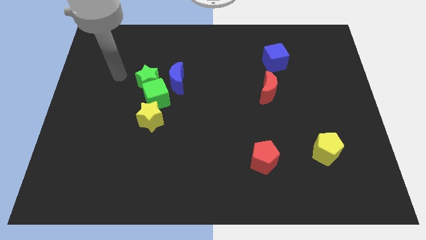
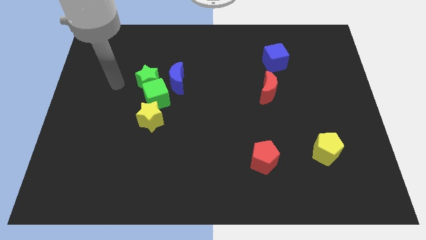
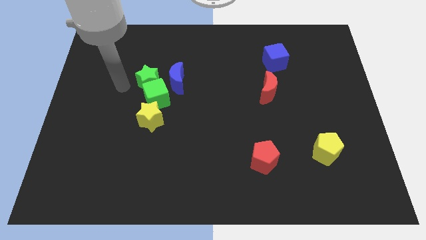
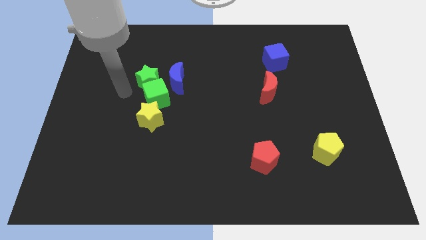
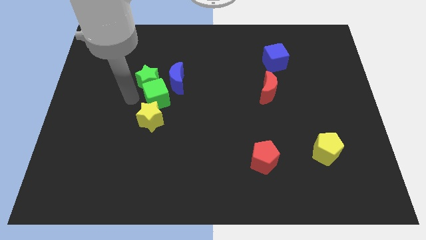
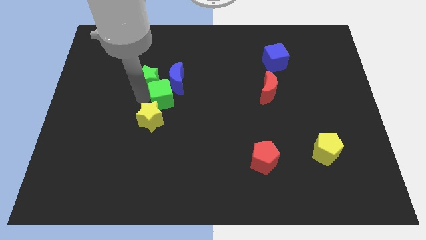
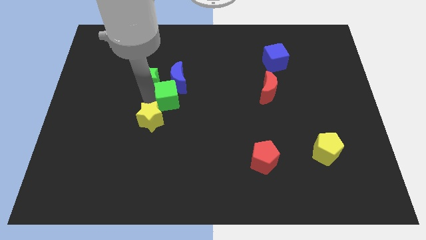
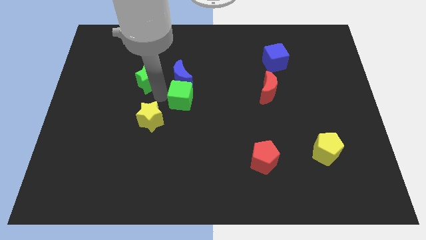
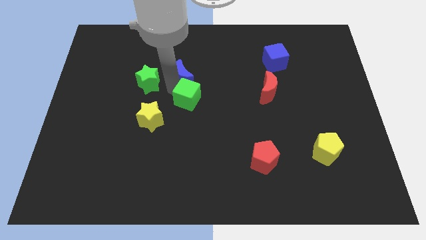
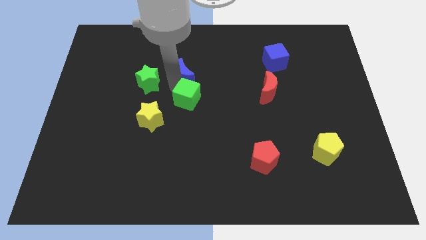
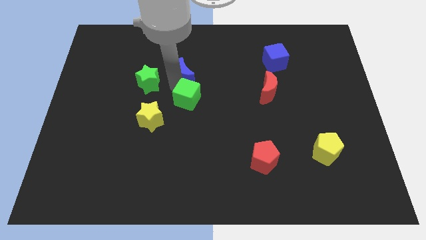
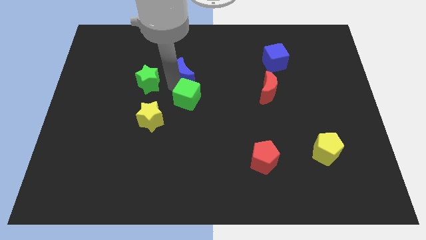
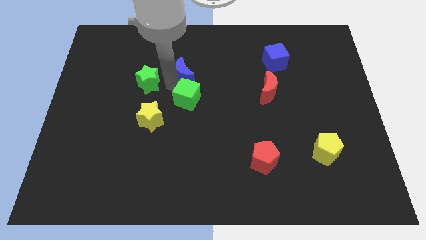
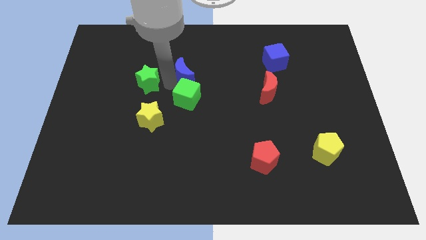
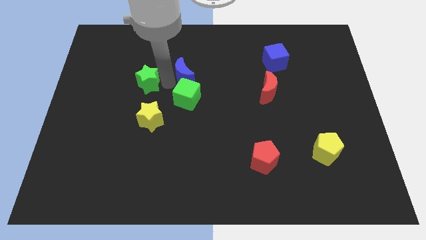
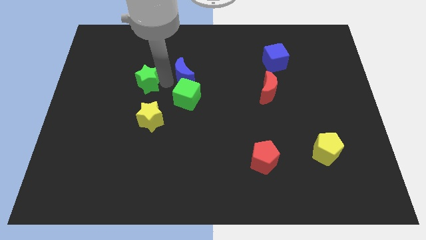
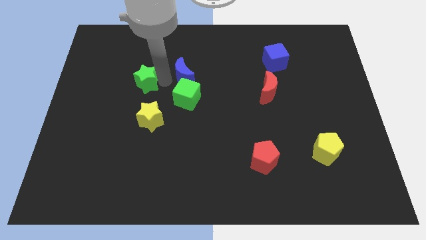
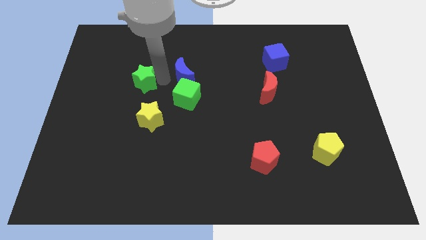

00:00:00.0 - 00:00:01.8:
pull the green star apart from the green cube and blue moon

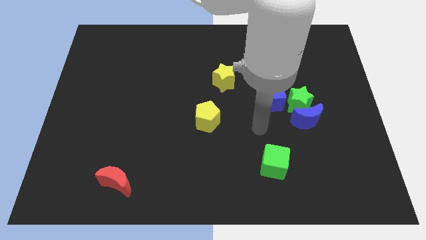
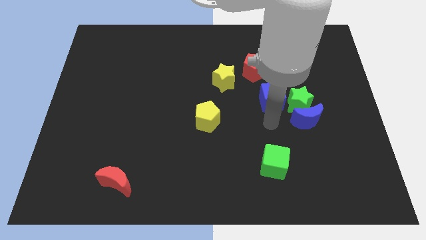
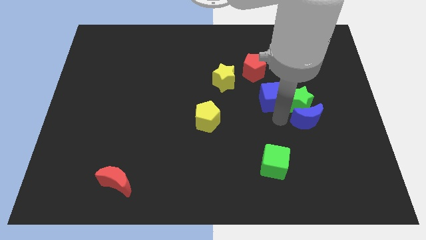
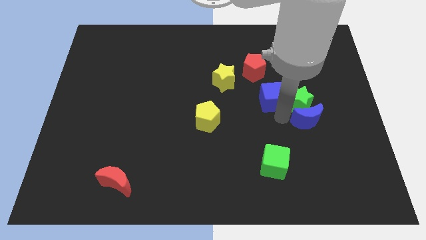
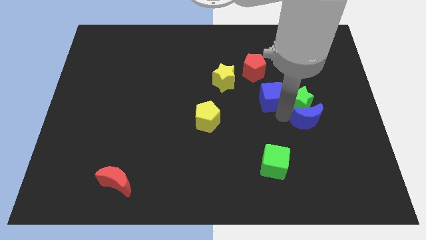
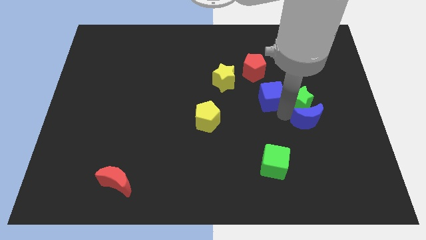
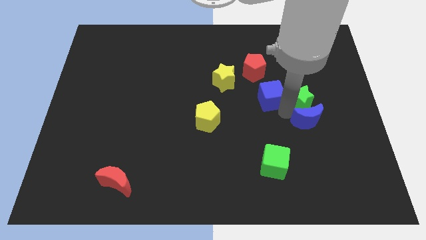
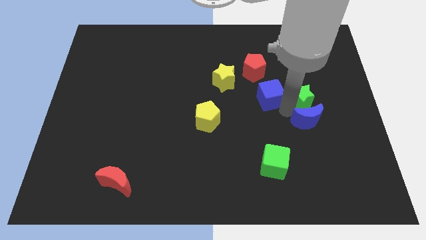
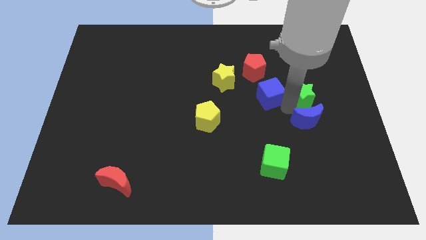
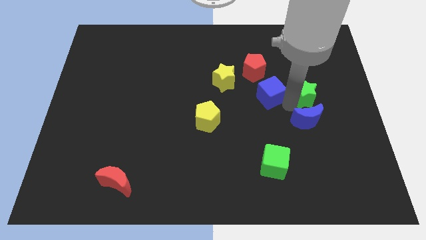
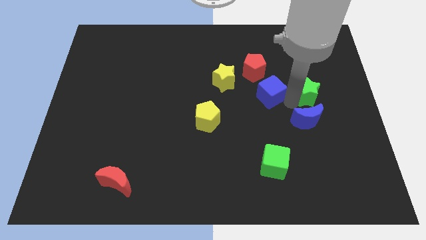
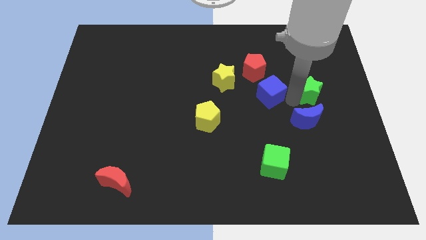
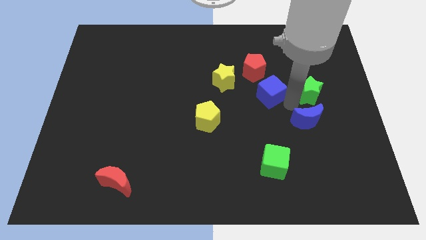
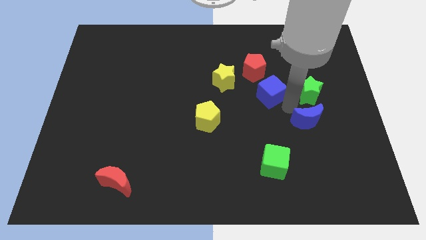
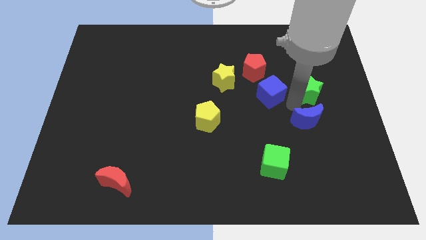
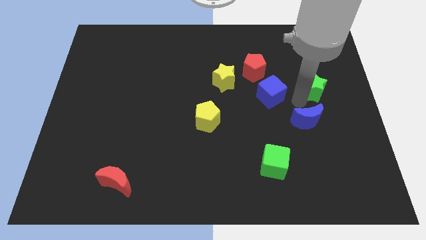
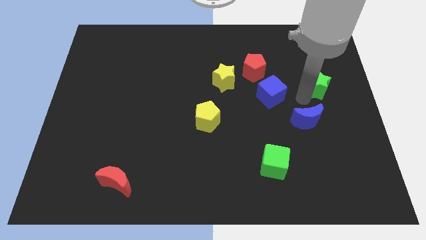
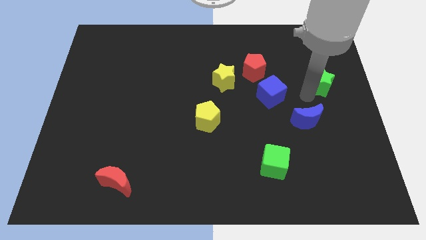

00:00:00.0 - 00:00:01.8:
separate the green star from the blue moon and blue cube

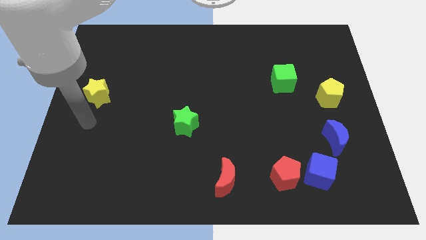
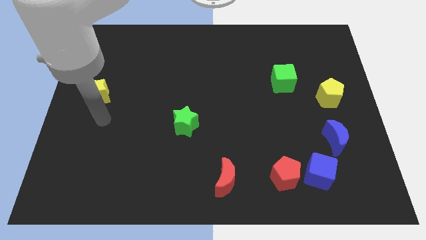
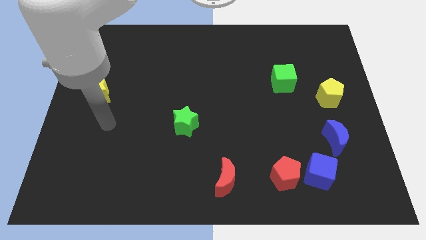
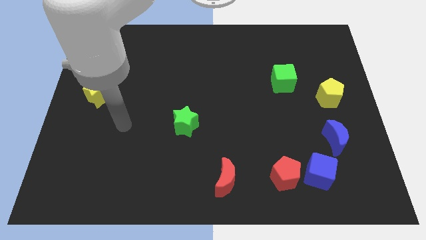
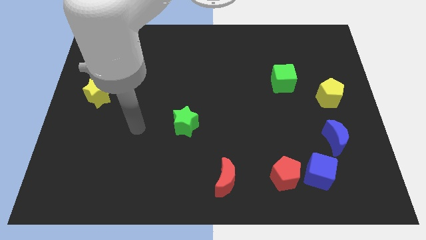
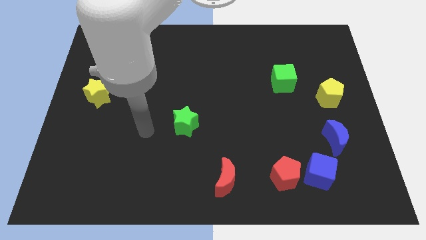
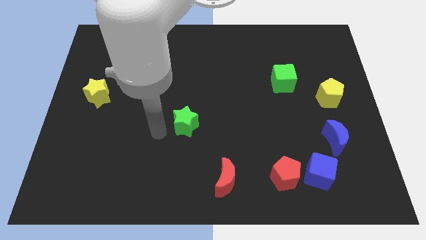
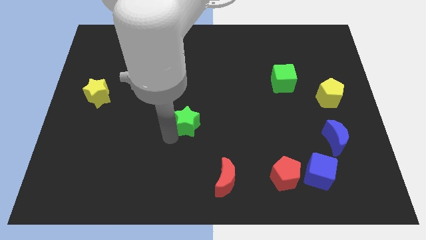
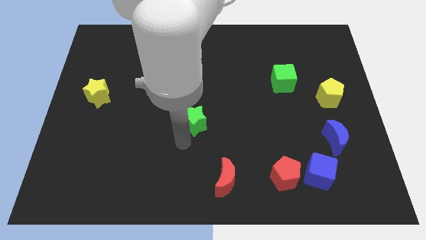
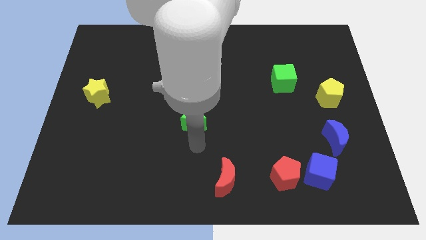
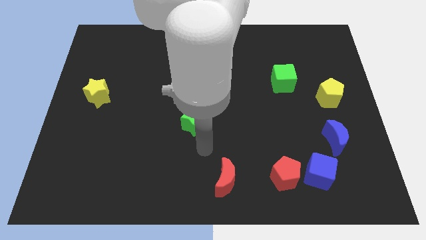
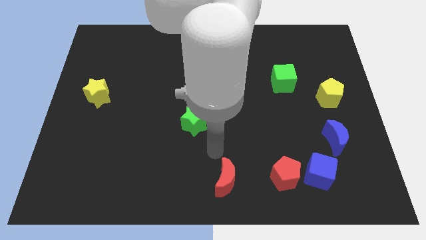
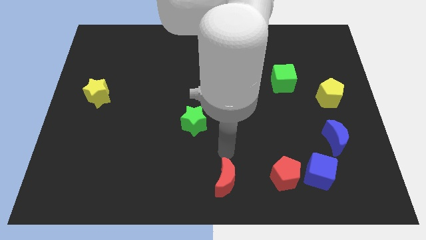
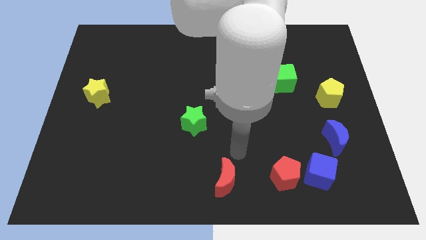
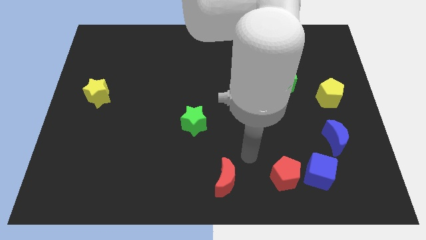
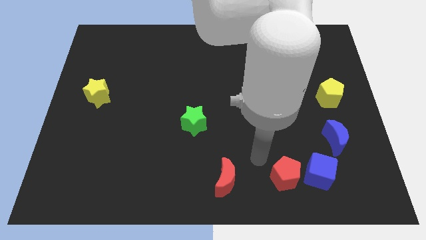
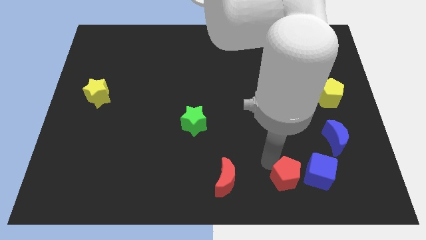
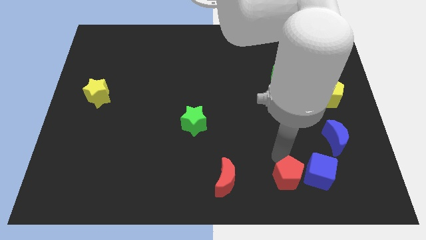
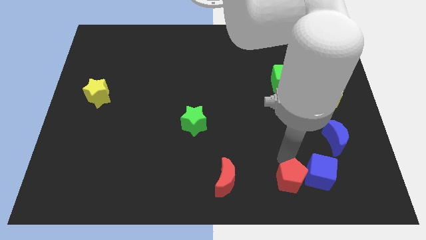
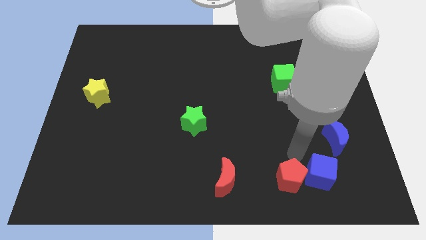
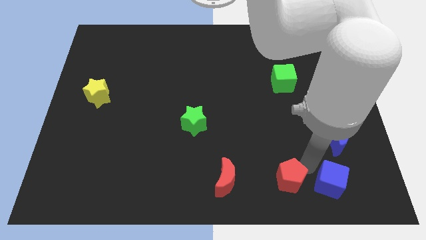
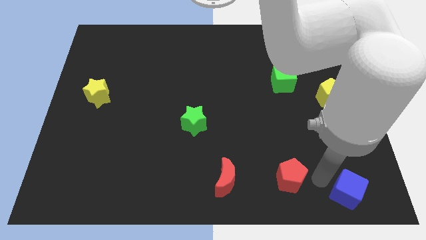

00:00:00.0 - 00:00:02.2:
separate the red pentagon from the blue cube

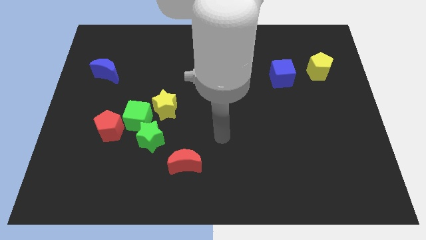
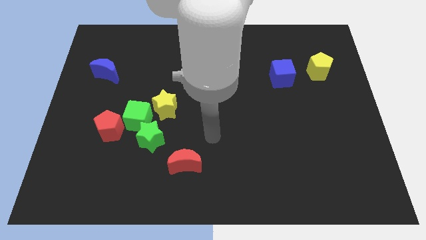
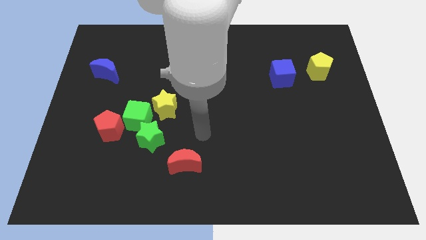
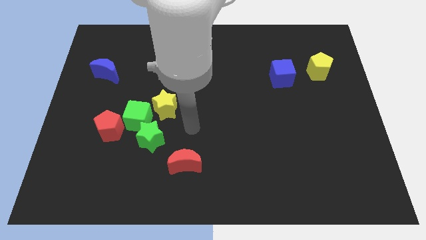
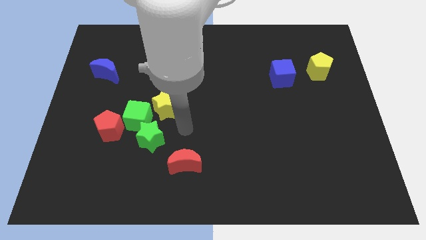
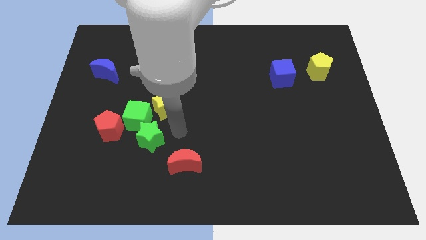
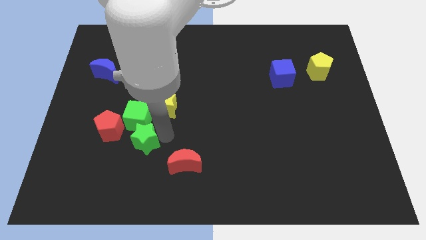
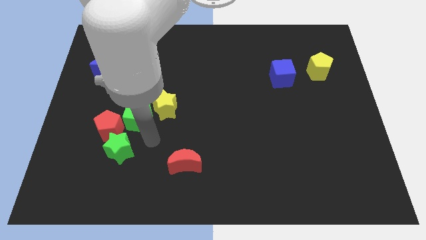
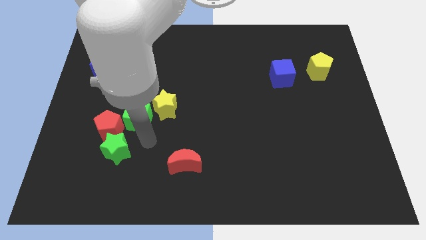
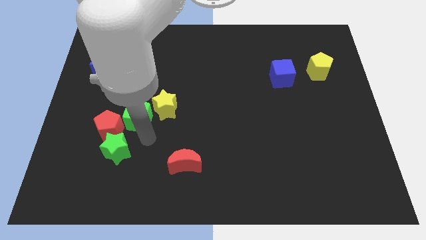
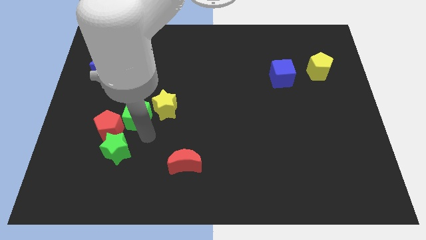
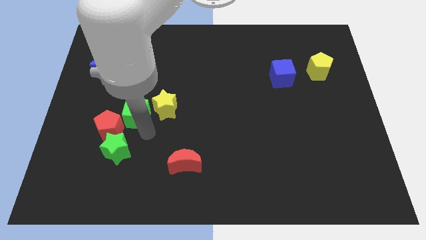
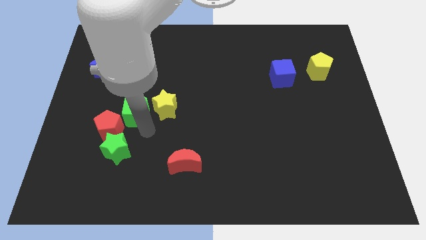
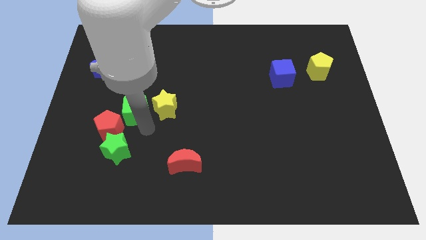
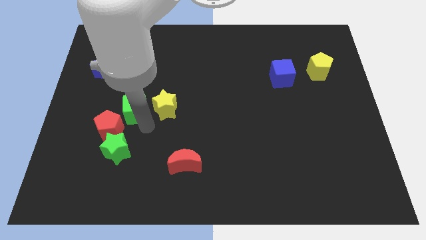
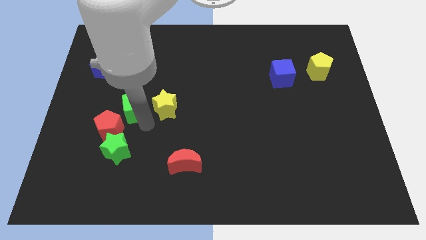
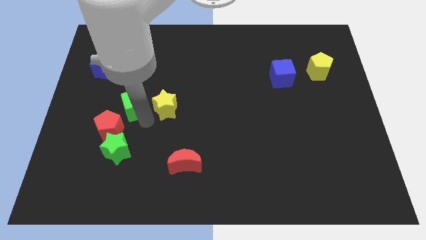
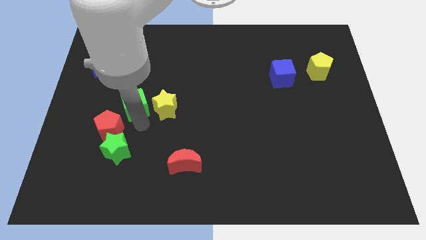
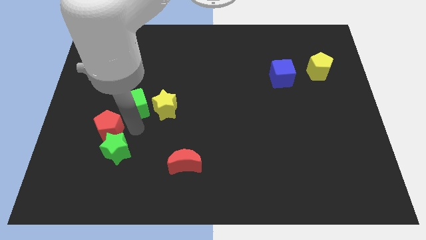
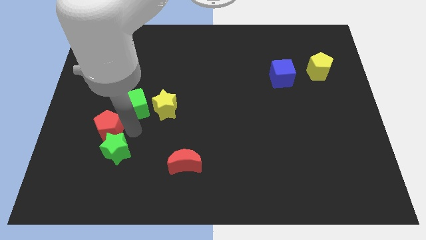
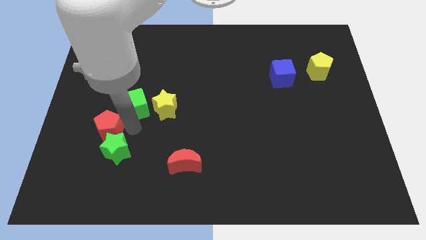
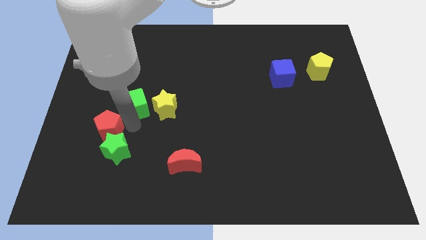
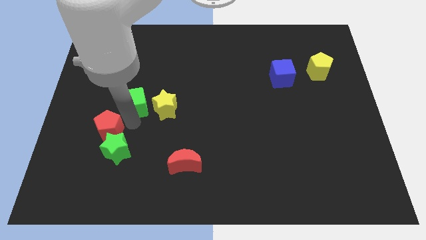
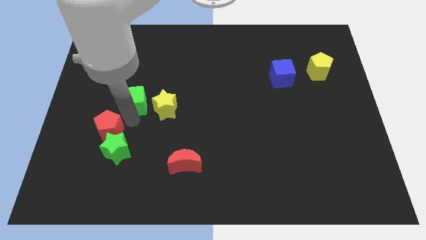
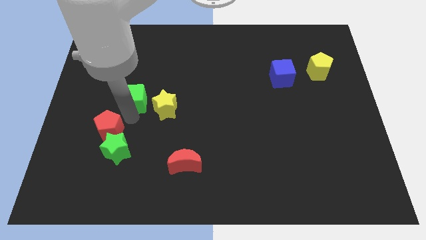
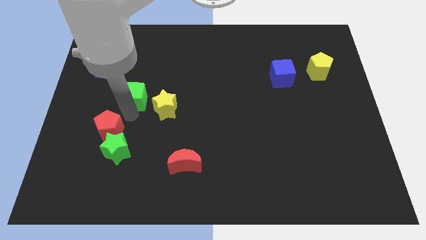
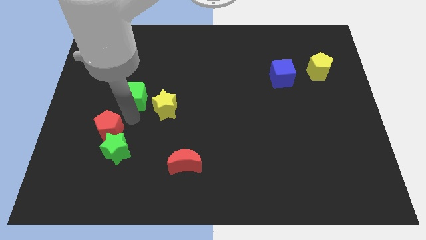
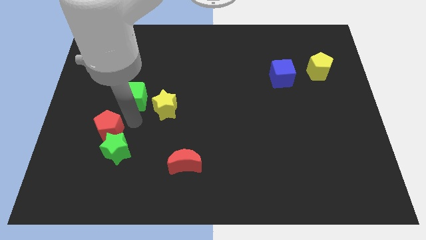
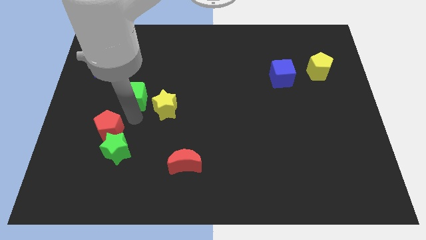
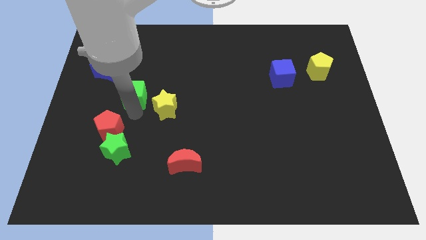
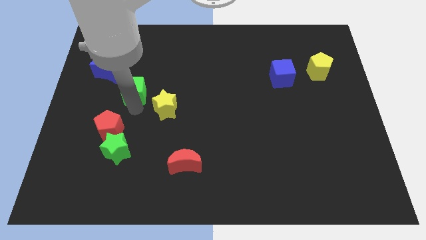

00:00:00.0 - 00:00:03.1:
pull the green cube apart from the green star, red pentagon, and yellow star

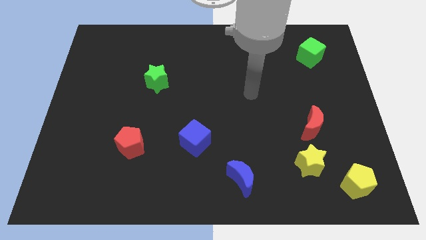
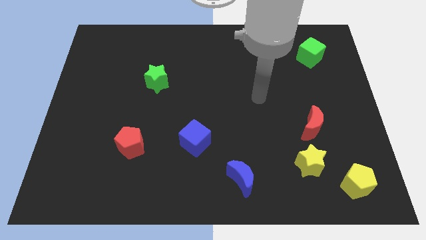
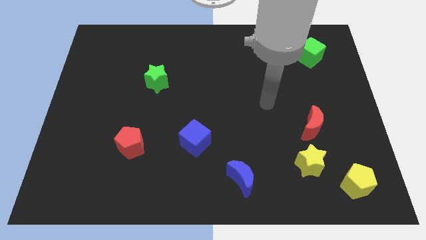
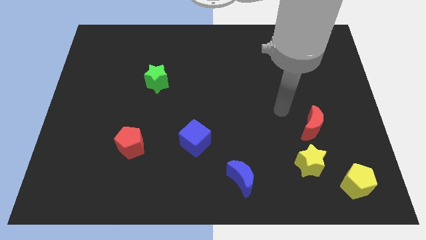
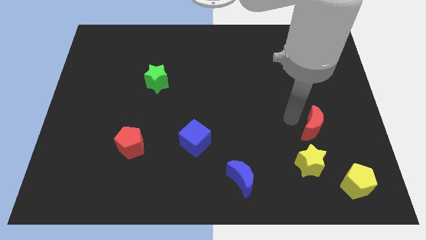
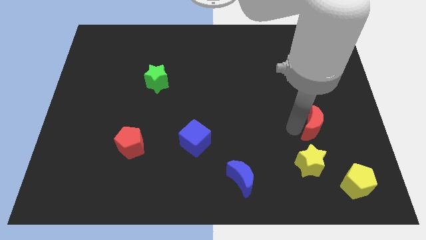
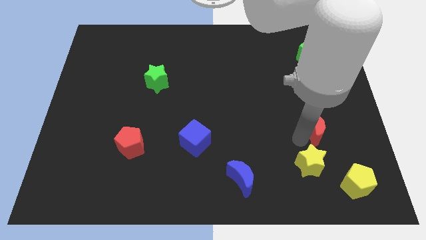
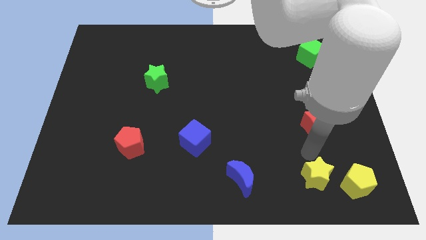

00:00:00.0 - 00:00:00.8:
move the red moon away from the yellow star
